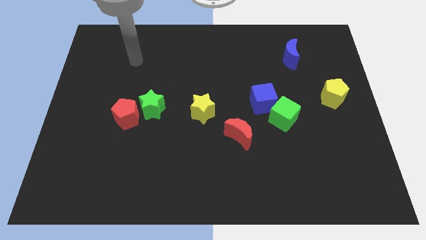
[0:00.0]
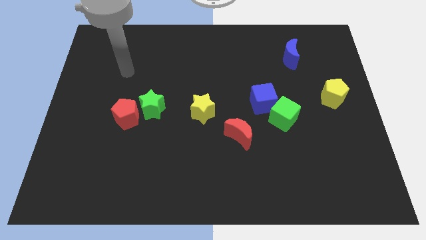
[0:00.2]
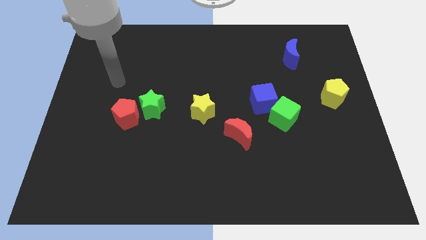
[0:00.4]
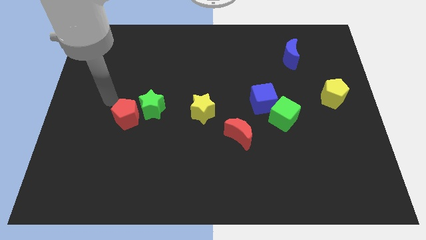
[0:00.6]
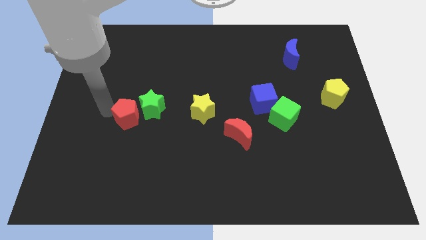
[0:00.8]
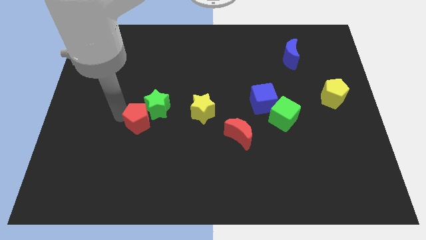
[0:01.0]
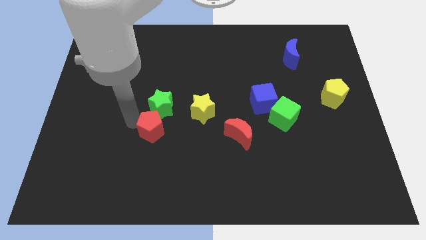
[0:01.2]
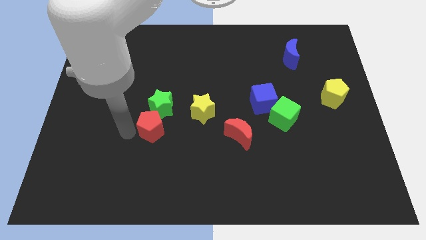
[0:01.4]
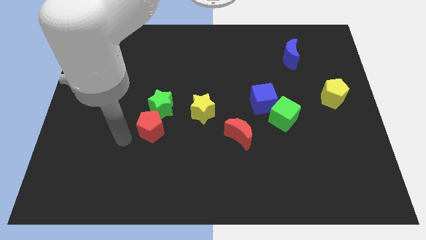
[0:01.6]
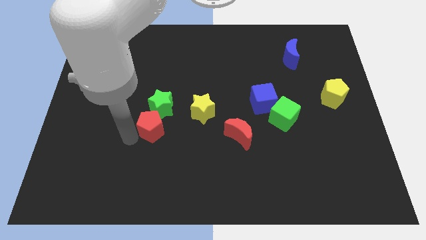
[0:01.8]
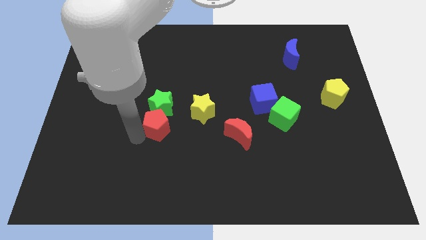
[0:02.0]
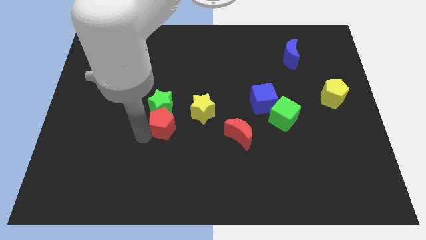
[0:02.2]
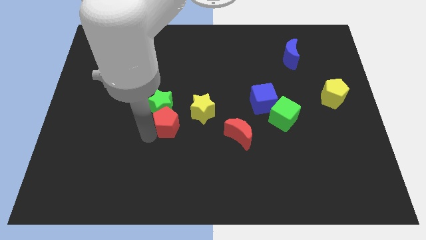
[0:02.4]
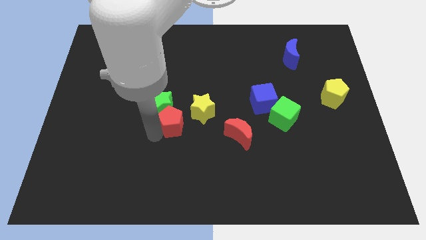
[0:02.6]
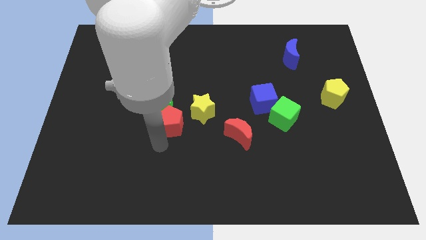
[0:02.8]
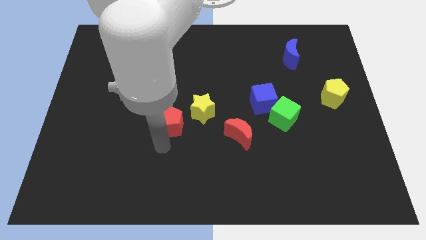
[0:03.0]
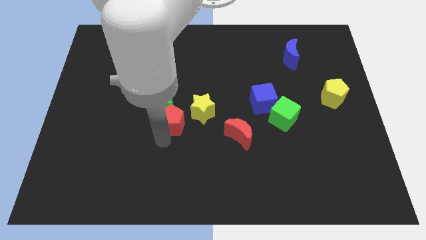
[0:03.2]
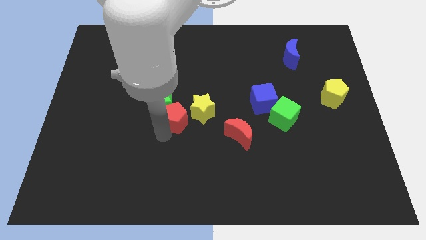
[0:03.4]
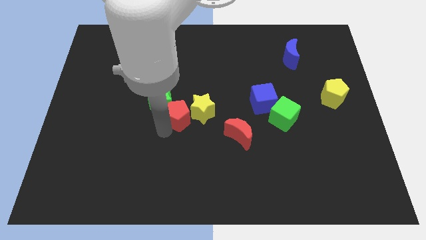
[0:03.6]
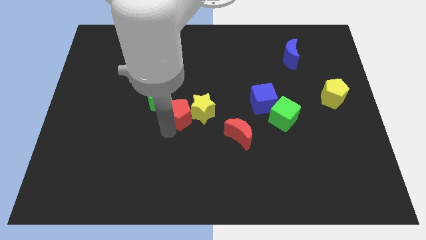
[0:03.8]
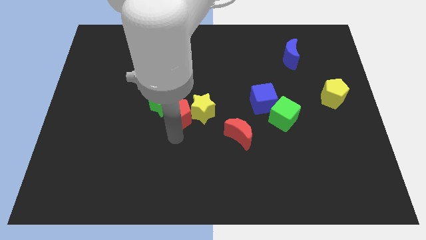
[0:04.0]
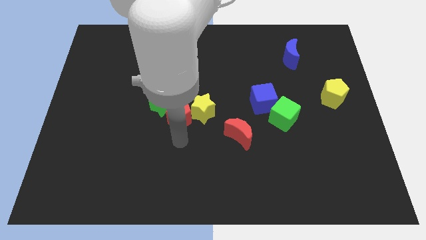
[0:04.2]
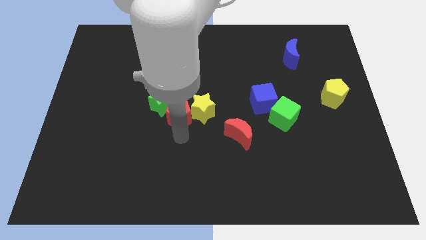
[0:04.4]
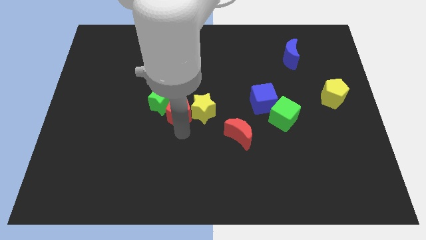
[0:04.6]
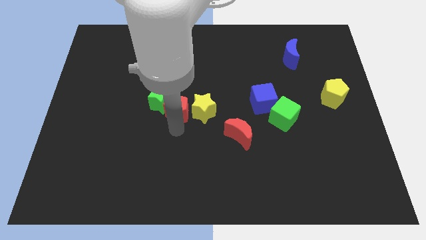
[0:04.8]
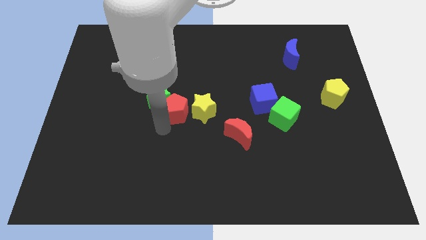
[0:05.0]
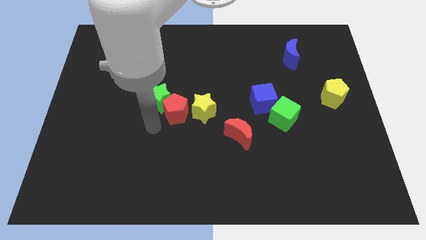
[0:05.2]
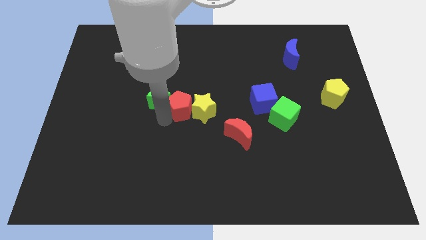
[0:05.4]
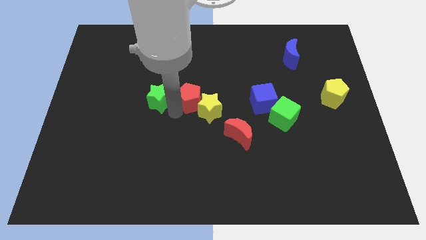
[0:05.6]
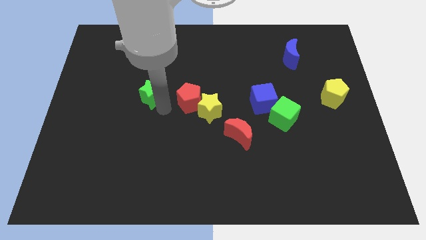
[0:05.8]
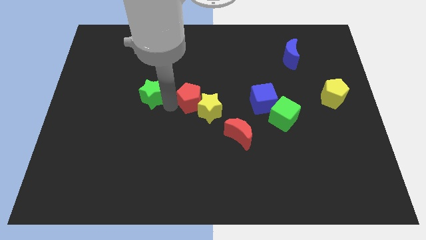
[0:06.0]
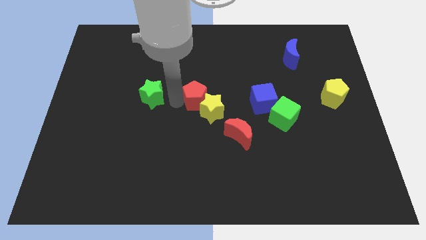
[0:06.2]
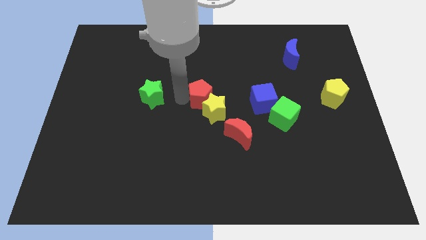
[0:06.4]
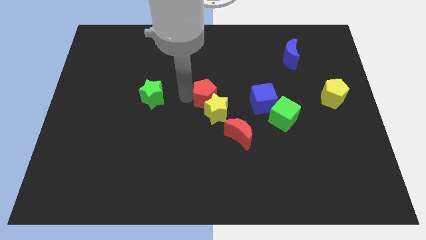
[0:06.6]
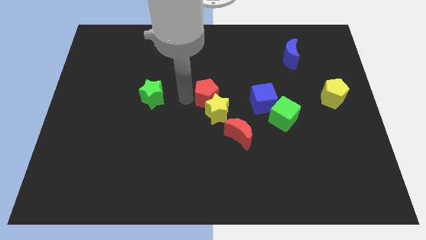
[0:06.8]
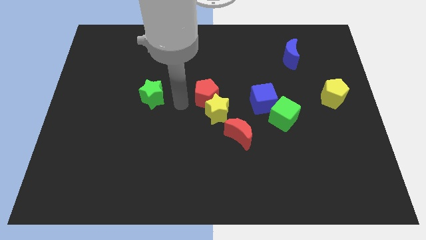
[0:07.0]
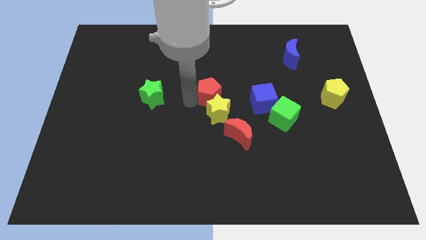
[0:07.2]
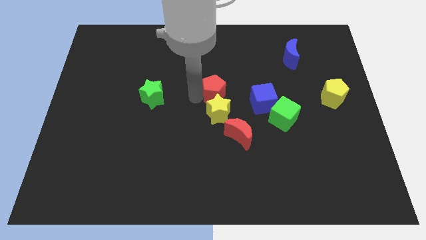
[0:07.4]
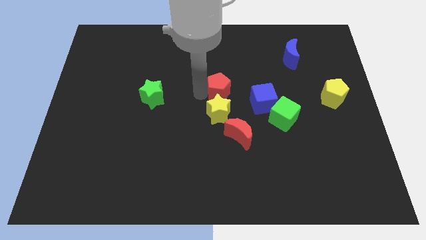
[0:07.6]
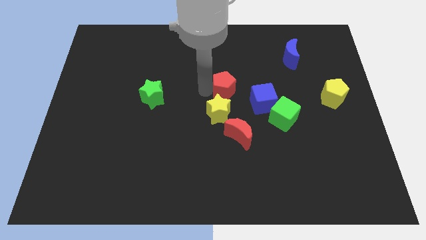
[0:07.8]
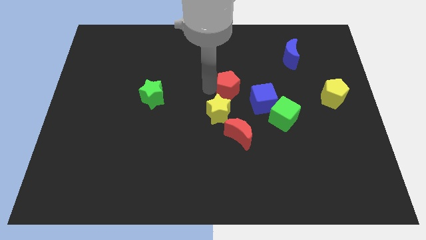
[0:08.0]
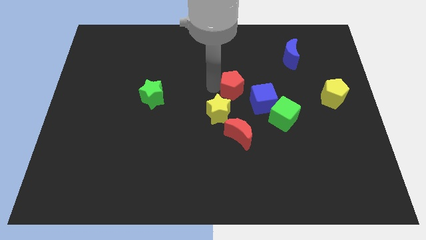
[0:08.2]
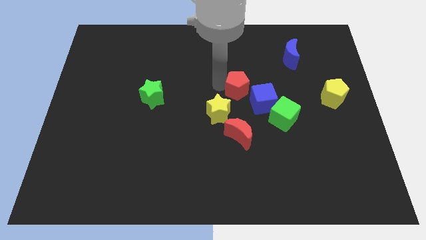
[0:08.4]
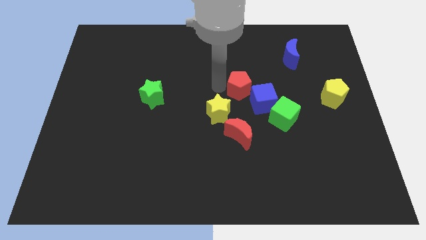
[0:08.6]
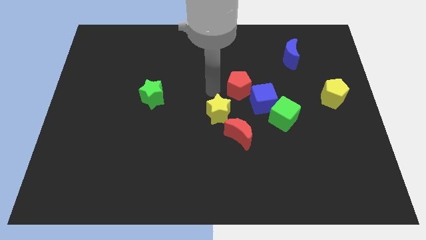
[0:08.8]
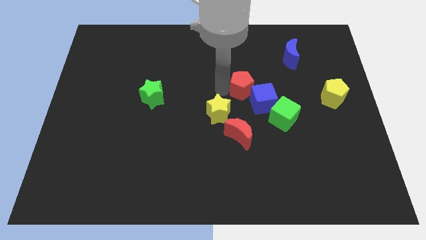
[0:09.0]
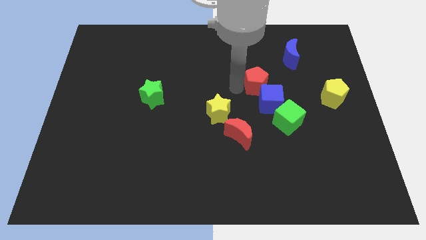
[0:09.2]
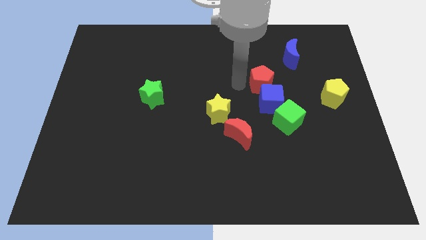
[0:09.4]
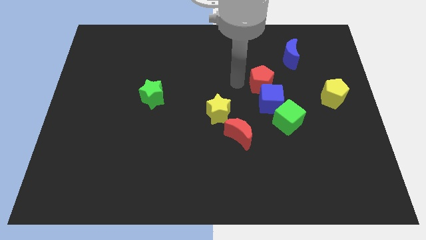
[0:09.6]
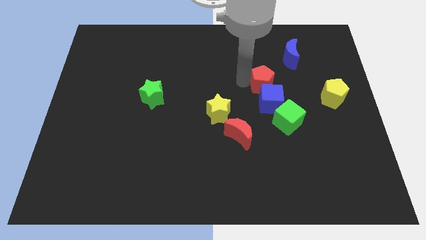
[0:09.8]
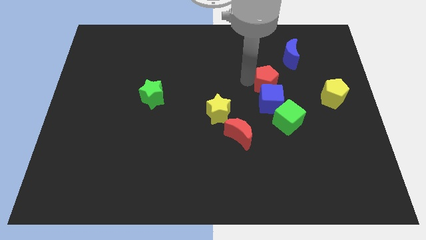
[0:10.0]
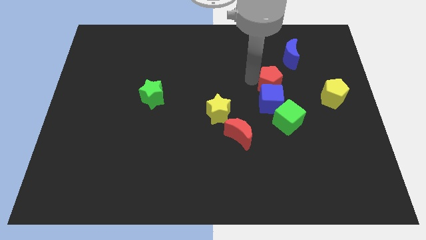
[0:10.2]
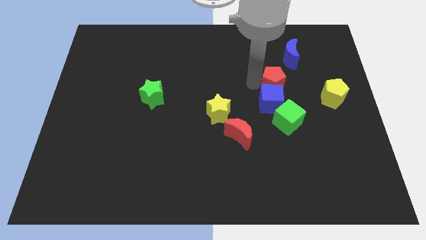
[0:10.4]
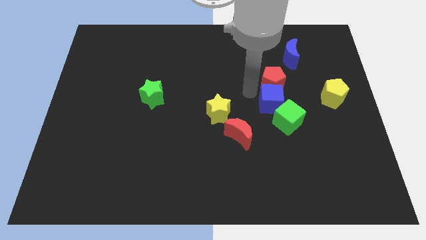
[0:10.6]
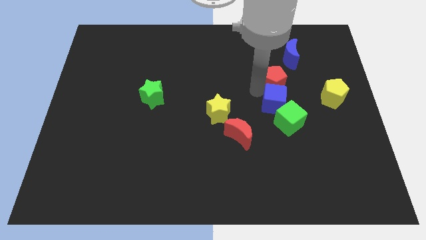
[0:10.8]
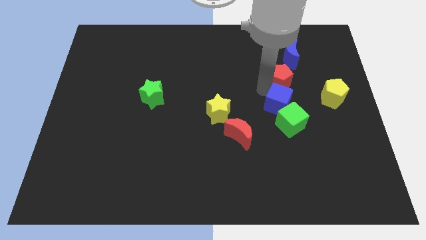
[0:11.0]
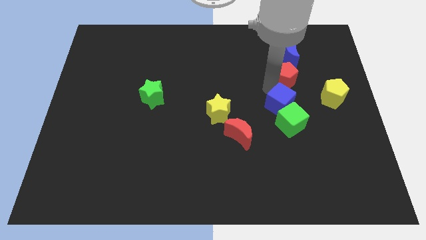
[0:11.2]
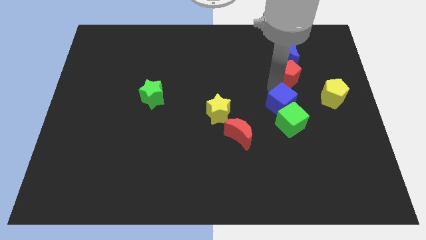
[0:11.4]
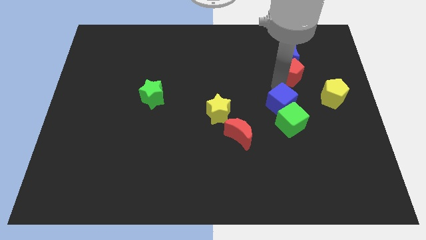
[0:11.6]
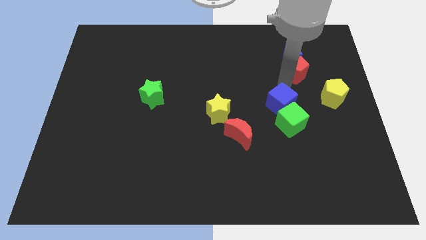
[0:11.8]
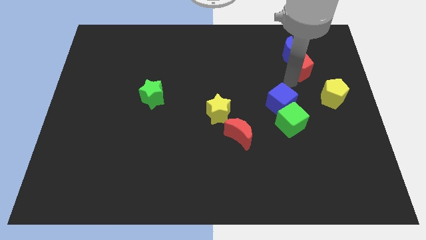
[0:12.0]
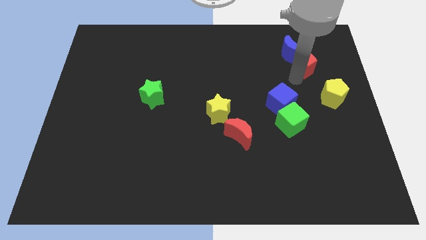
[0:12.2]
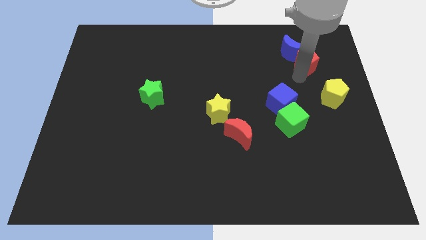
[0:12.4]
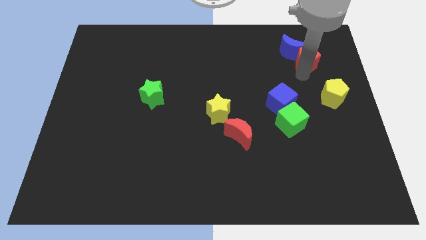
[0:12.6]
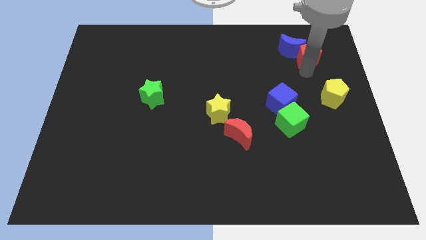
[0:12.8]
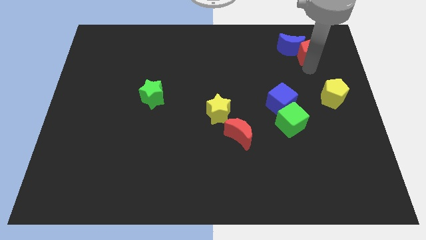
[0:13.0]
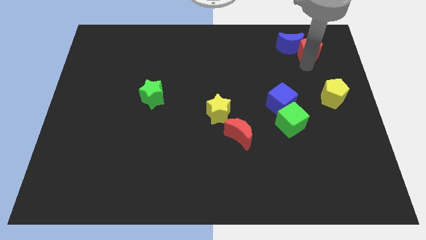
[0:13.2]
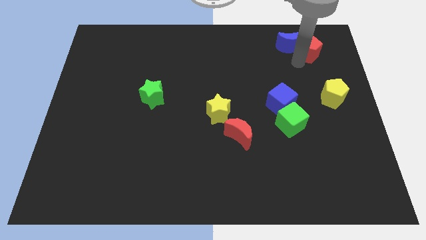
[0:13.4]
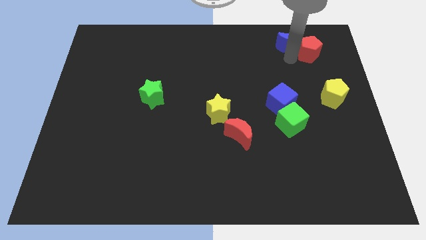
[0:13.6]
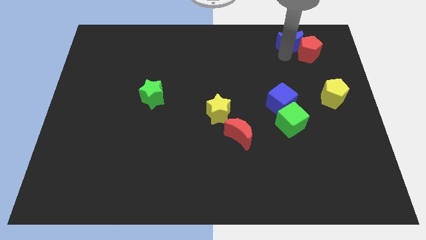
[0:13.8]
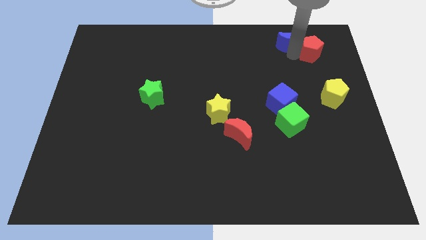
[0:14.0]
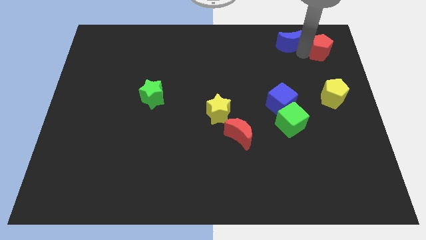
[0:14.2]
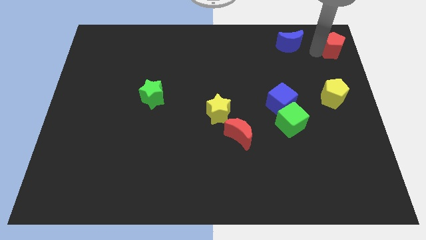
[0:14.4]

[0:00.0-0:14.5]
put the red pentagon to the top right corner
